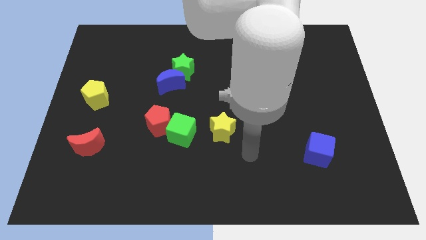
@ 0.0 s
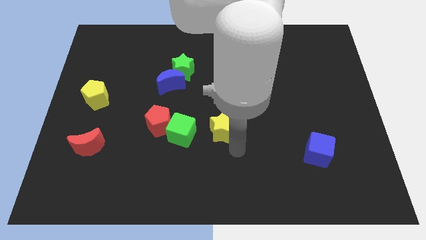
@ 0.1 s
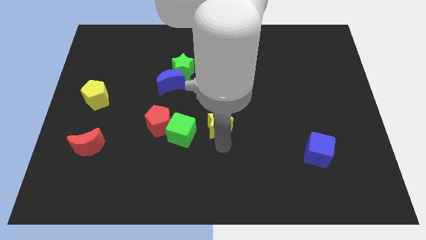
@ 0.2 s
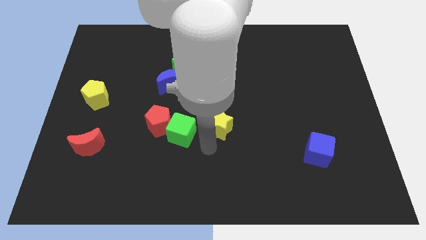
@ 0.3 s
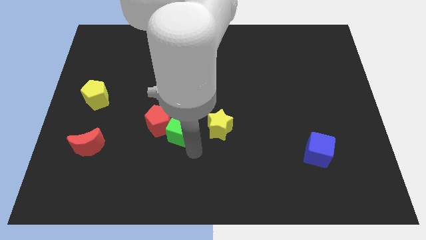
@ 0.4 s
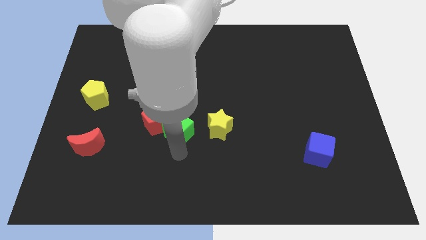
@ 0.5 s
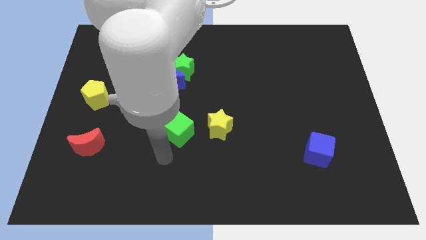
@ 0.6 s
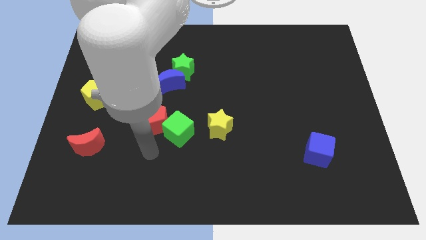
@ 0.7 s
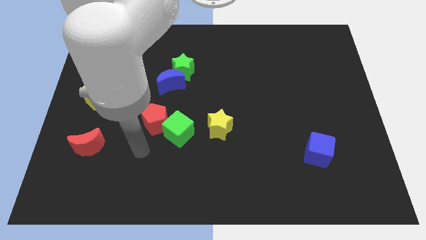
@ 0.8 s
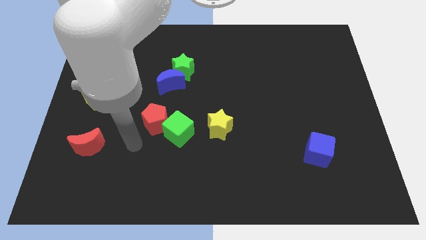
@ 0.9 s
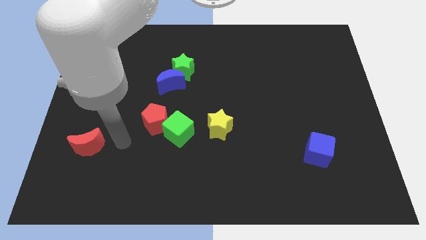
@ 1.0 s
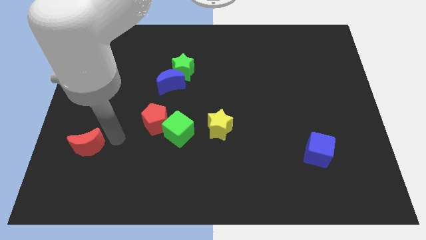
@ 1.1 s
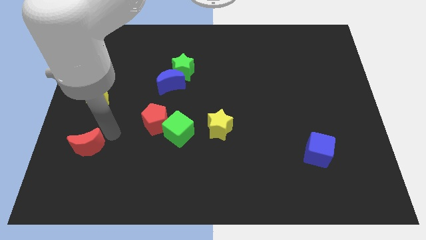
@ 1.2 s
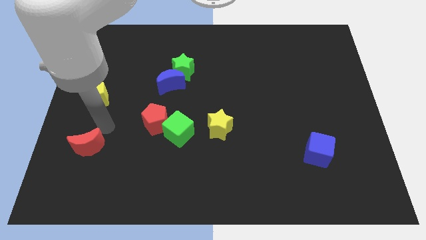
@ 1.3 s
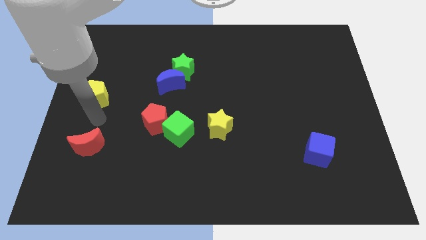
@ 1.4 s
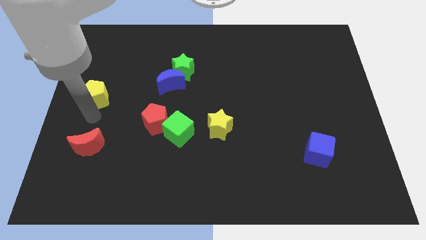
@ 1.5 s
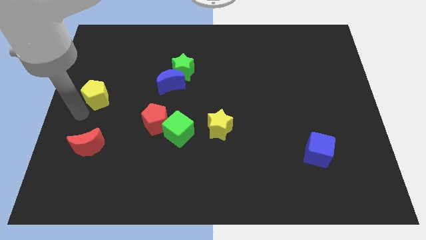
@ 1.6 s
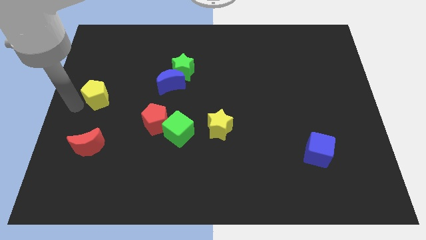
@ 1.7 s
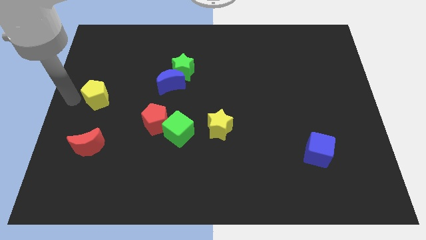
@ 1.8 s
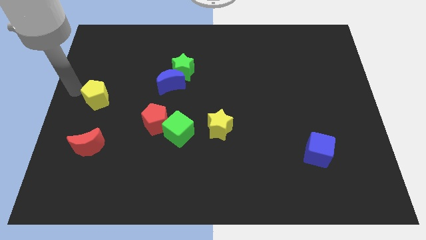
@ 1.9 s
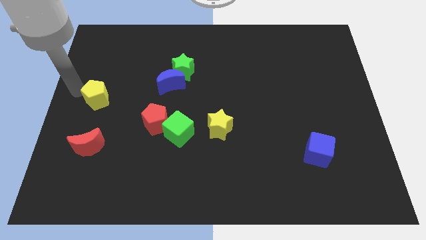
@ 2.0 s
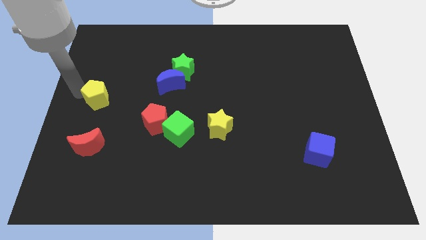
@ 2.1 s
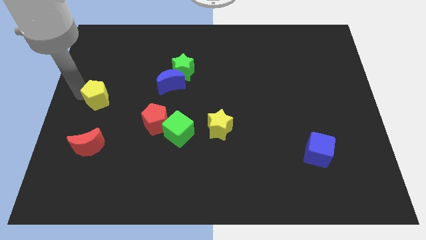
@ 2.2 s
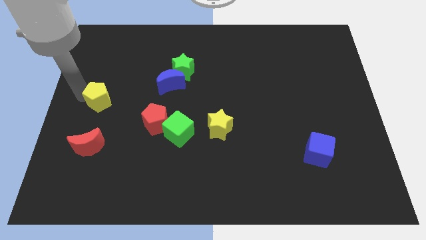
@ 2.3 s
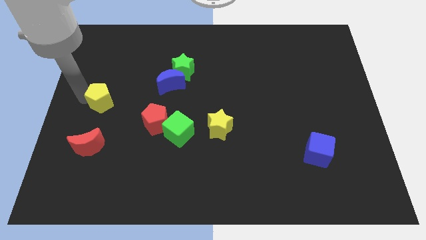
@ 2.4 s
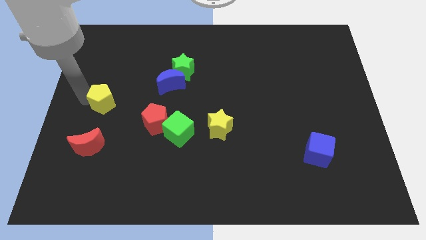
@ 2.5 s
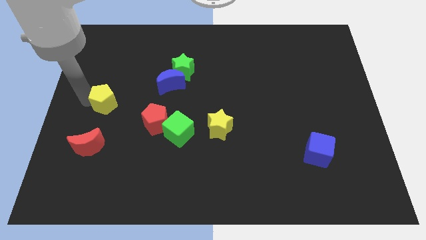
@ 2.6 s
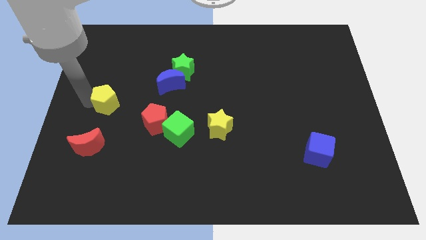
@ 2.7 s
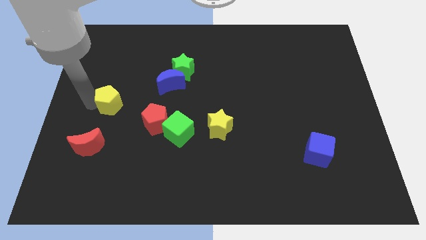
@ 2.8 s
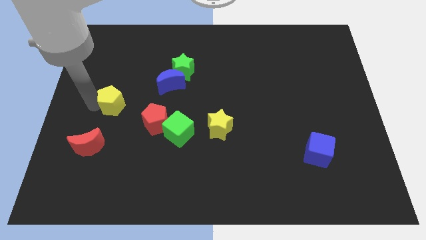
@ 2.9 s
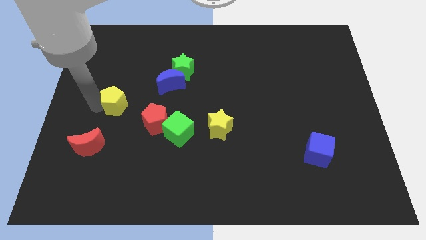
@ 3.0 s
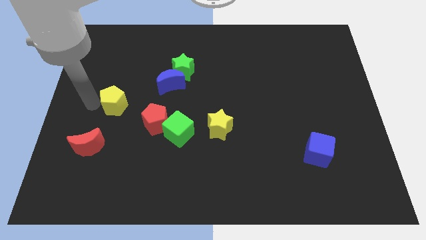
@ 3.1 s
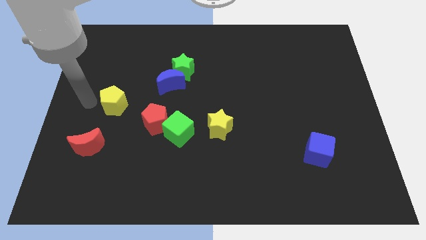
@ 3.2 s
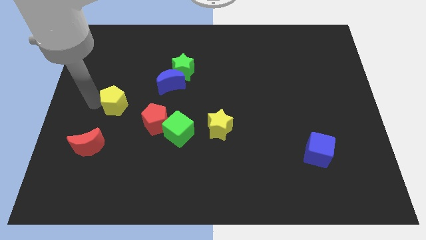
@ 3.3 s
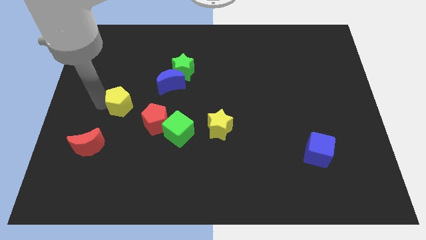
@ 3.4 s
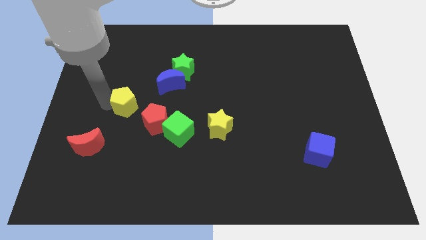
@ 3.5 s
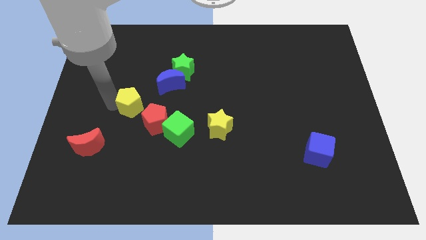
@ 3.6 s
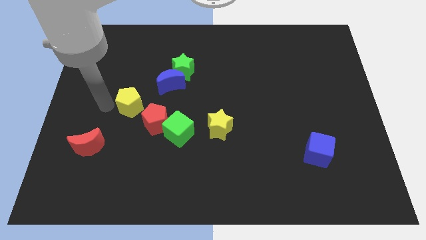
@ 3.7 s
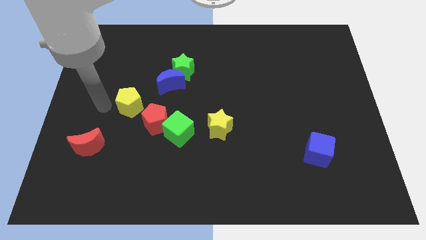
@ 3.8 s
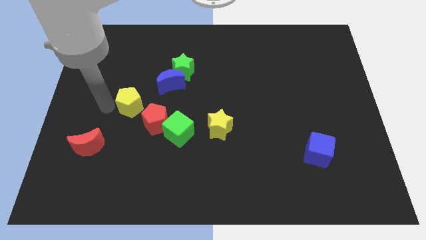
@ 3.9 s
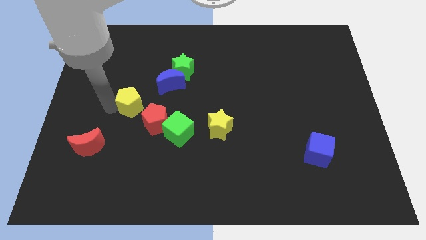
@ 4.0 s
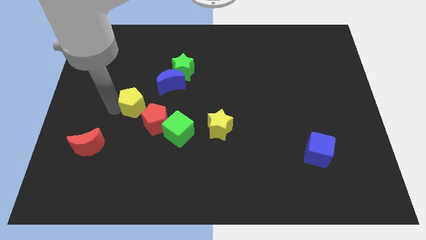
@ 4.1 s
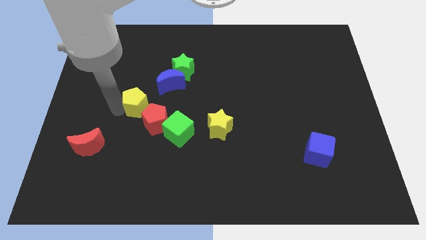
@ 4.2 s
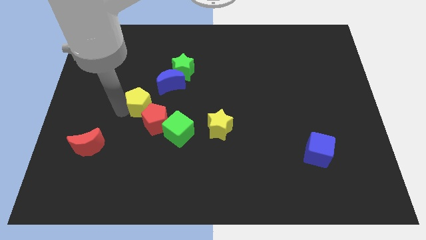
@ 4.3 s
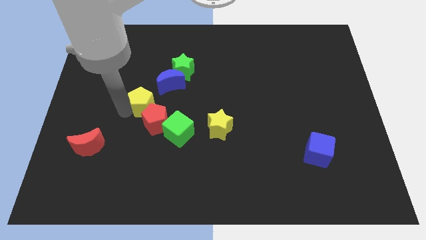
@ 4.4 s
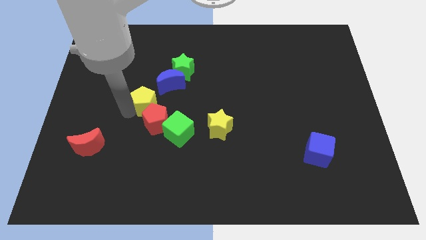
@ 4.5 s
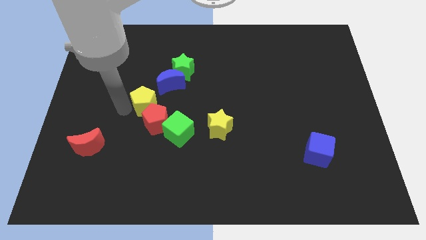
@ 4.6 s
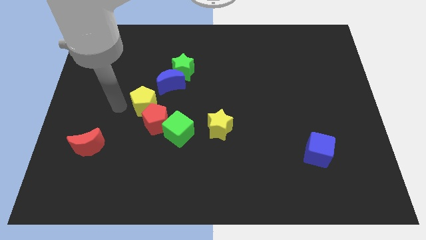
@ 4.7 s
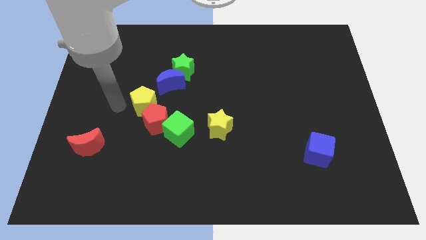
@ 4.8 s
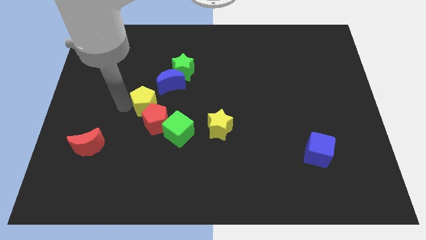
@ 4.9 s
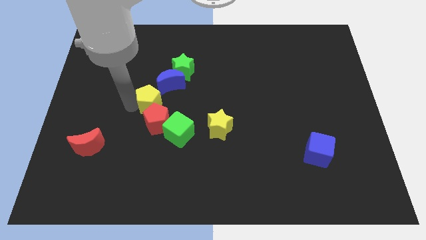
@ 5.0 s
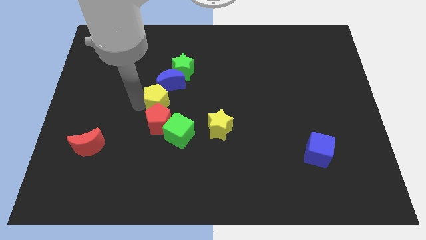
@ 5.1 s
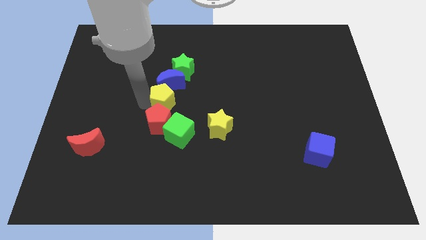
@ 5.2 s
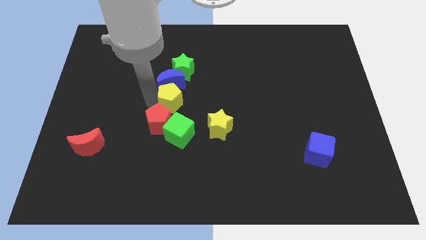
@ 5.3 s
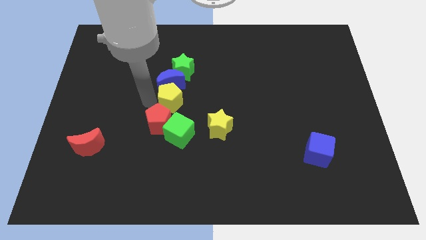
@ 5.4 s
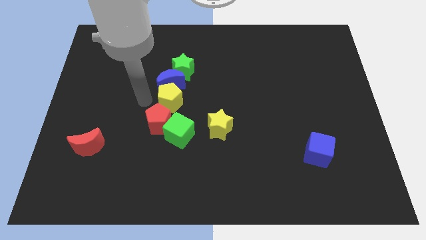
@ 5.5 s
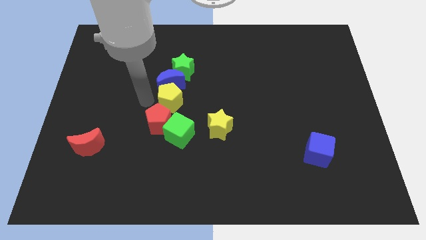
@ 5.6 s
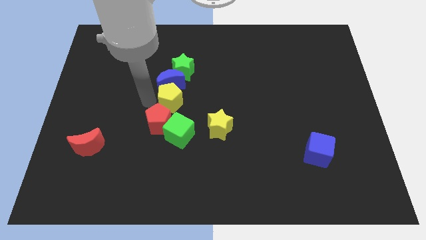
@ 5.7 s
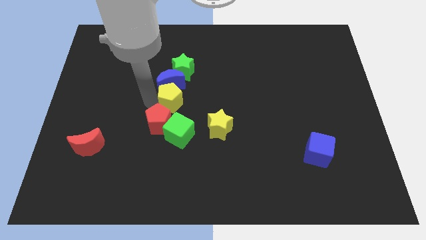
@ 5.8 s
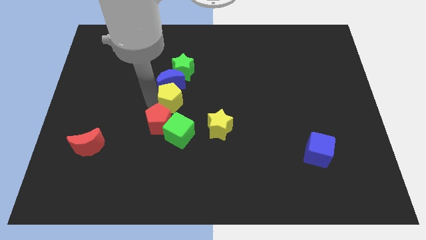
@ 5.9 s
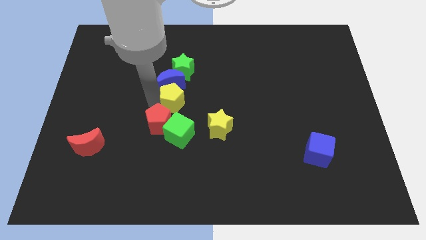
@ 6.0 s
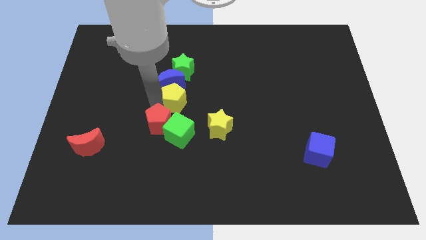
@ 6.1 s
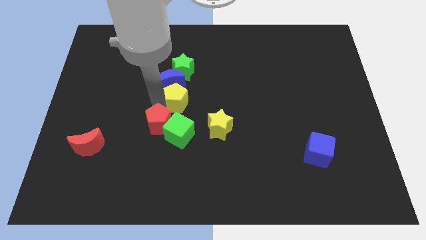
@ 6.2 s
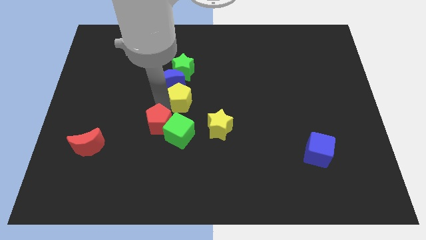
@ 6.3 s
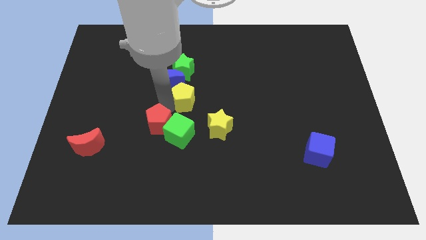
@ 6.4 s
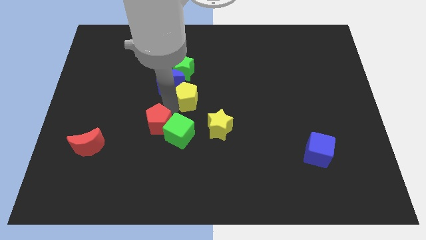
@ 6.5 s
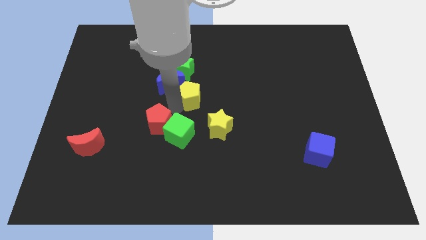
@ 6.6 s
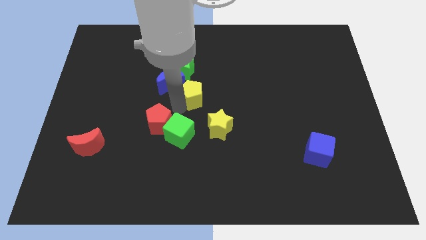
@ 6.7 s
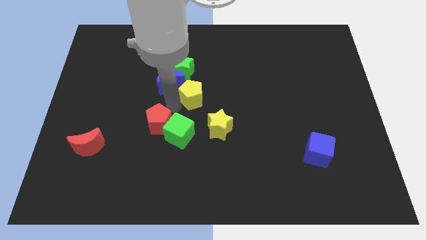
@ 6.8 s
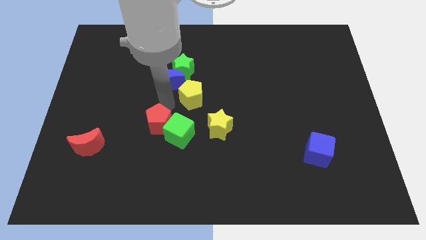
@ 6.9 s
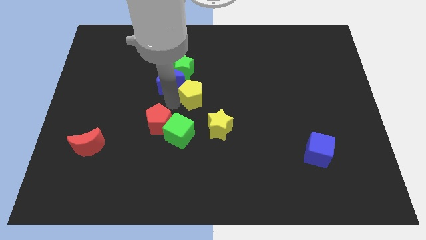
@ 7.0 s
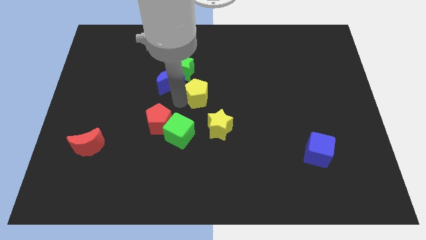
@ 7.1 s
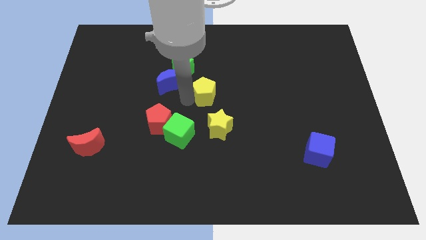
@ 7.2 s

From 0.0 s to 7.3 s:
push the yellow pentagon to the top side of the yellow star
